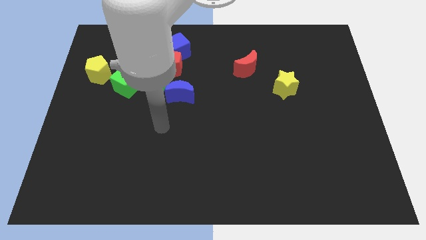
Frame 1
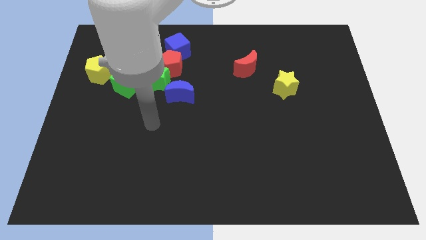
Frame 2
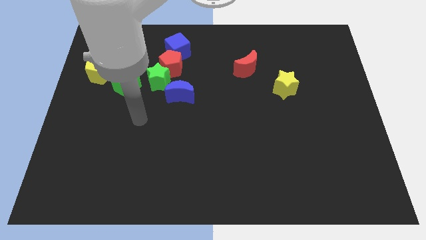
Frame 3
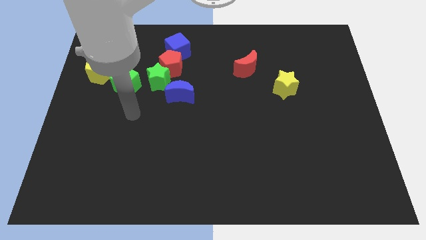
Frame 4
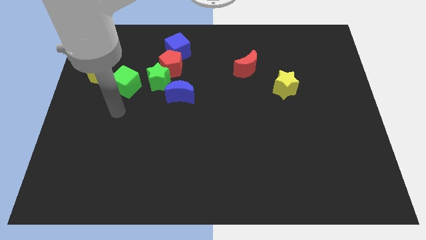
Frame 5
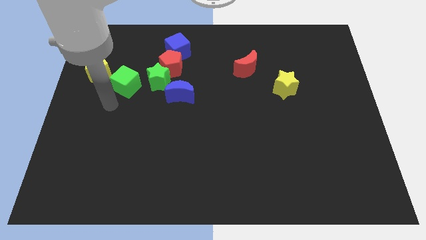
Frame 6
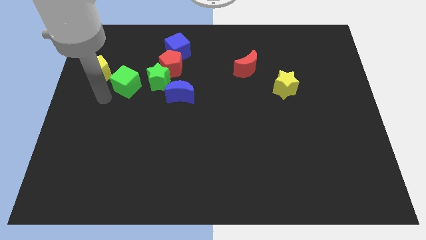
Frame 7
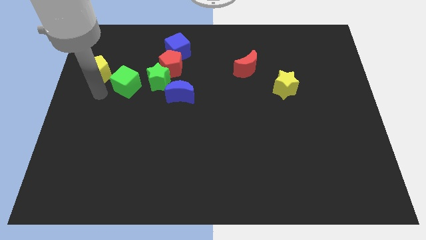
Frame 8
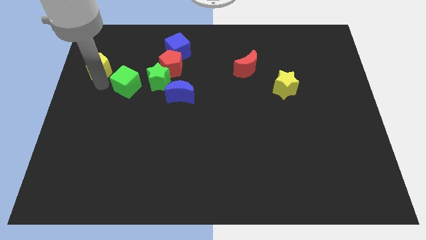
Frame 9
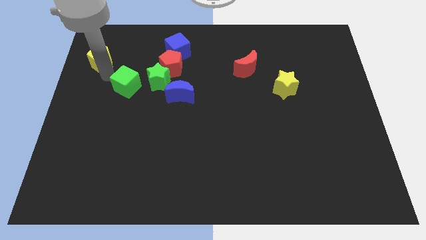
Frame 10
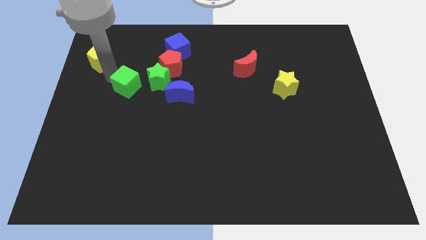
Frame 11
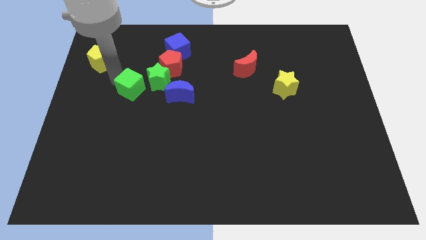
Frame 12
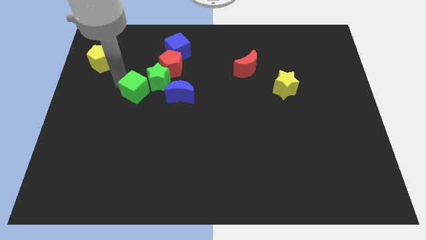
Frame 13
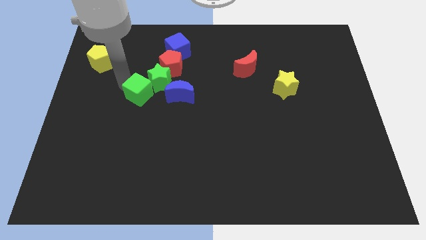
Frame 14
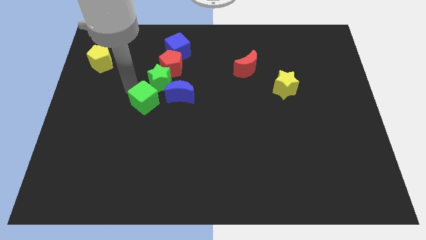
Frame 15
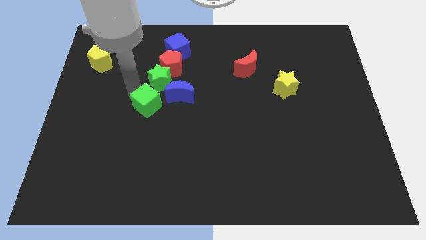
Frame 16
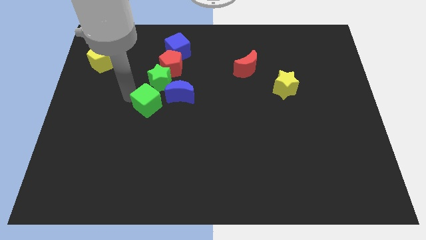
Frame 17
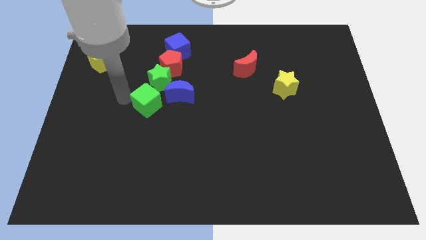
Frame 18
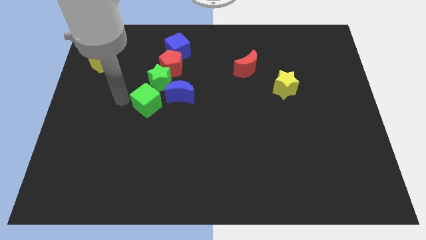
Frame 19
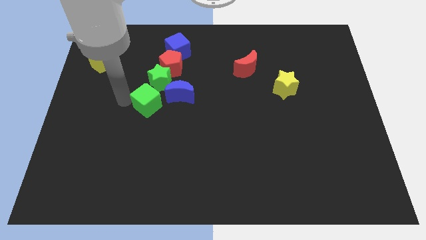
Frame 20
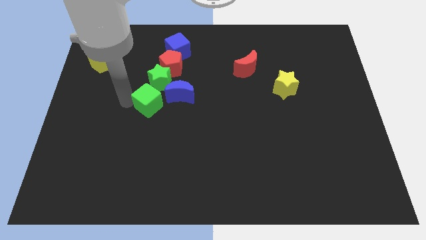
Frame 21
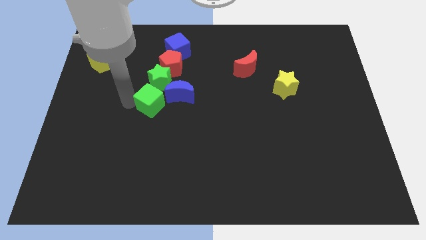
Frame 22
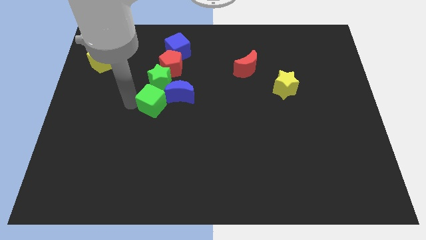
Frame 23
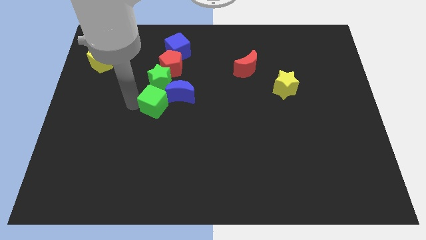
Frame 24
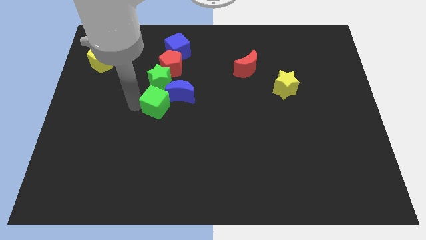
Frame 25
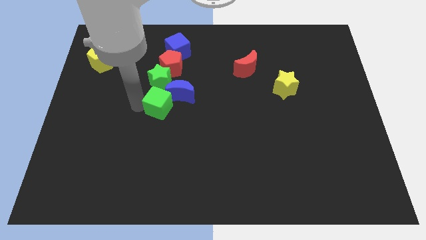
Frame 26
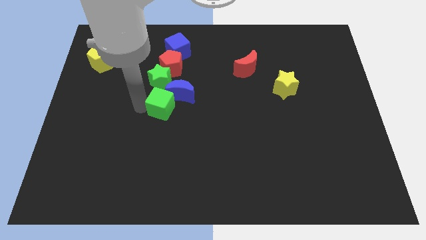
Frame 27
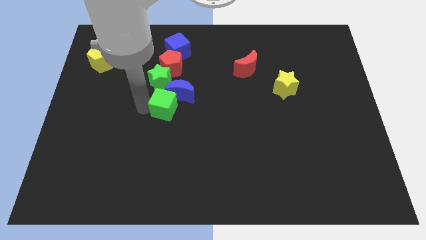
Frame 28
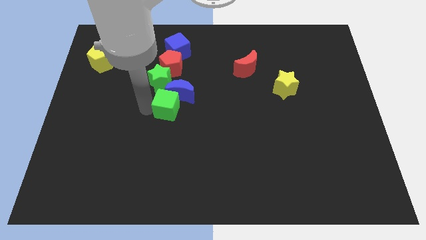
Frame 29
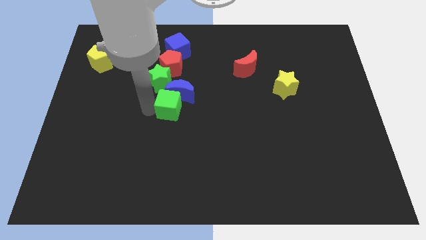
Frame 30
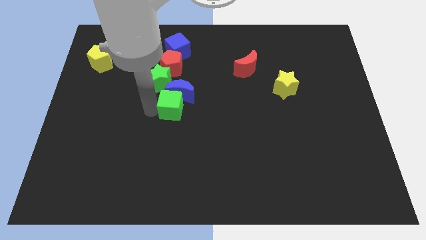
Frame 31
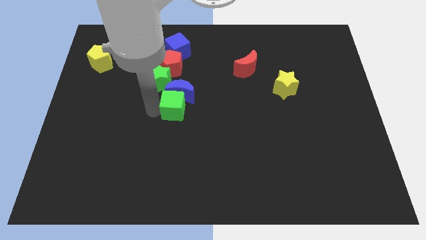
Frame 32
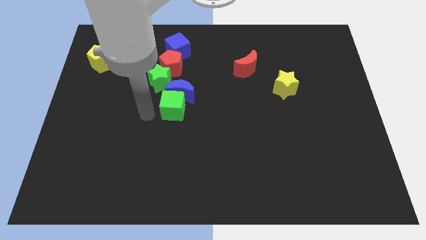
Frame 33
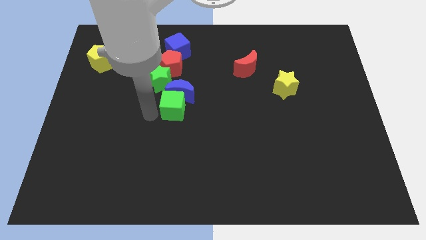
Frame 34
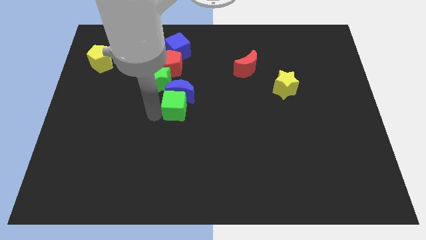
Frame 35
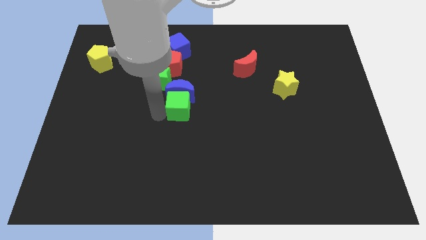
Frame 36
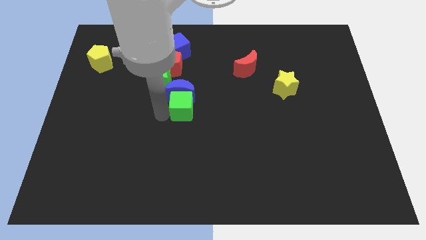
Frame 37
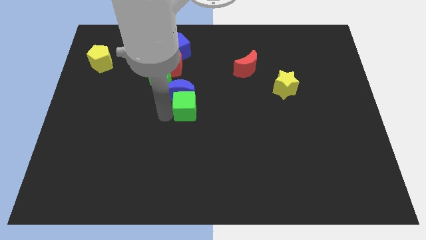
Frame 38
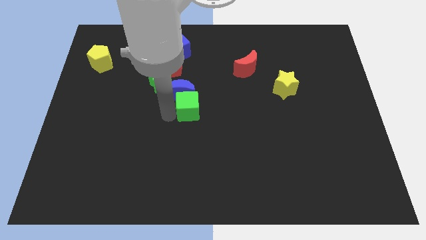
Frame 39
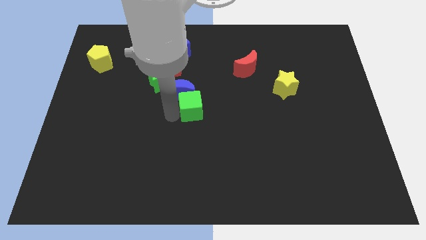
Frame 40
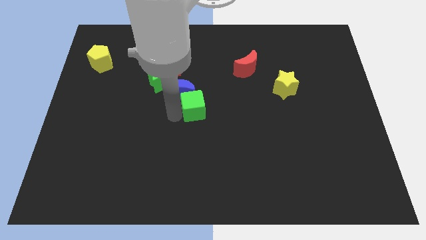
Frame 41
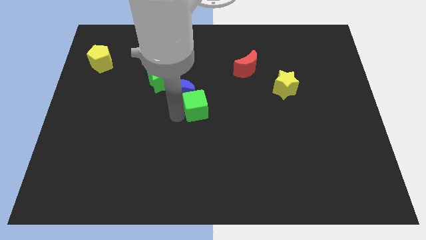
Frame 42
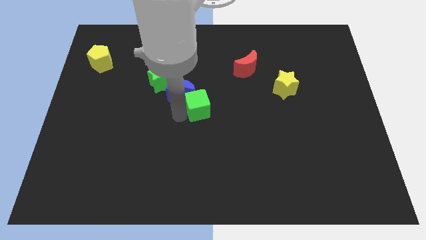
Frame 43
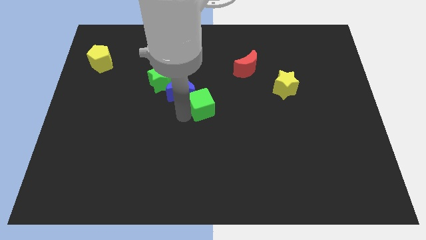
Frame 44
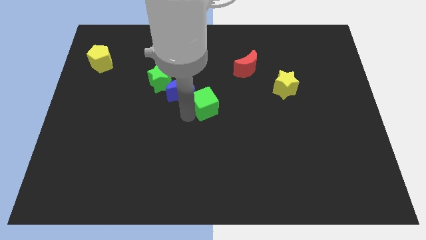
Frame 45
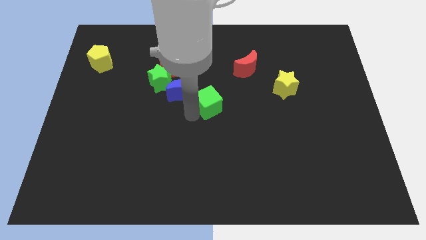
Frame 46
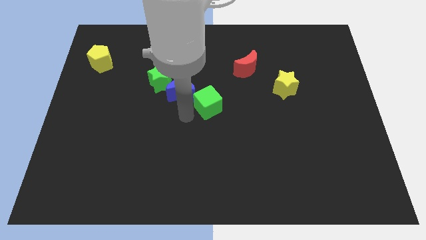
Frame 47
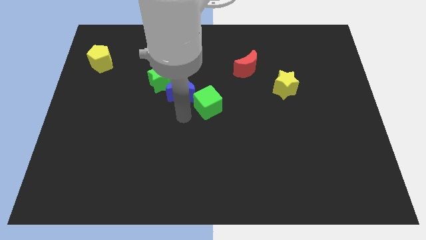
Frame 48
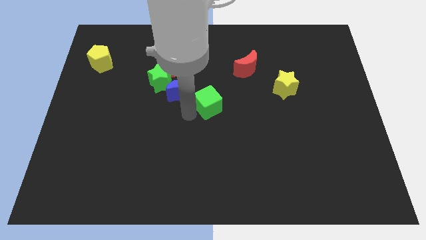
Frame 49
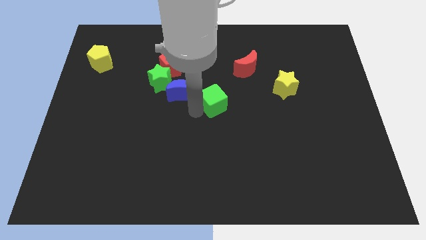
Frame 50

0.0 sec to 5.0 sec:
slide the green cube to the right

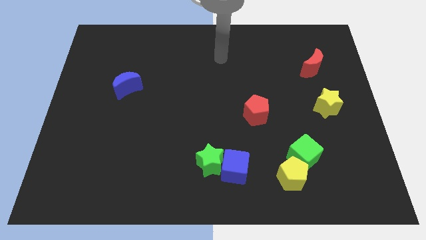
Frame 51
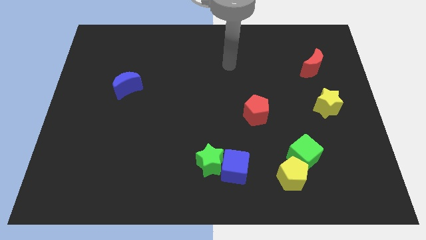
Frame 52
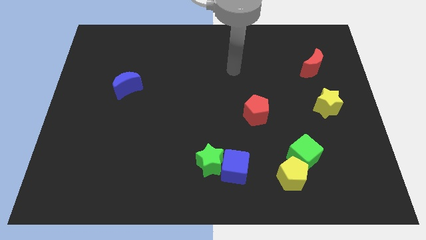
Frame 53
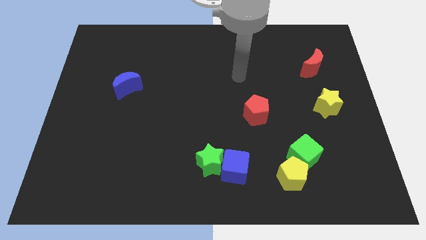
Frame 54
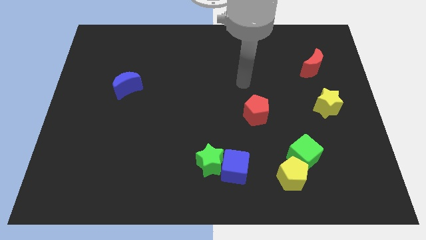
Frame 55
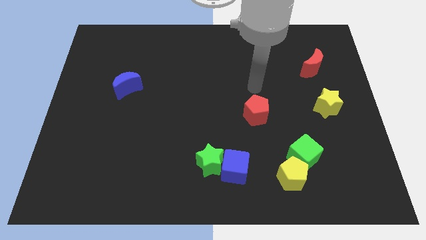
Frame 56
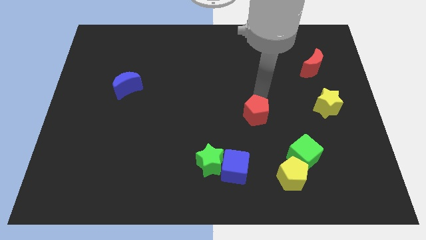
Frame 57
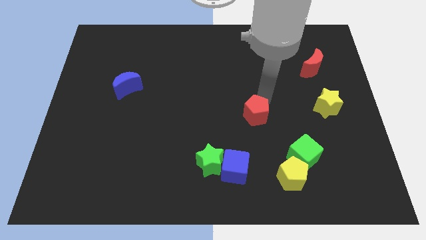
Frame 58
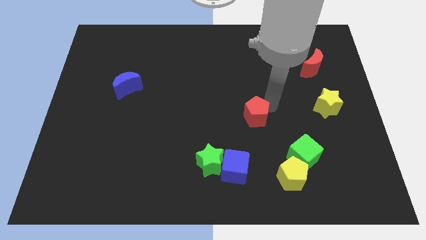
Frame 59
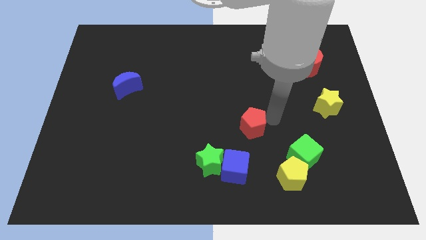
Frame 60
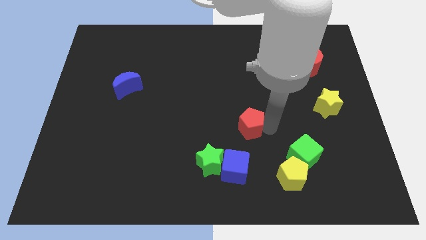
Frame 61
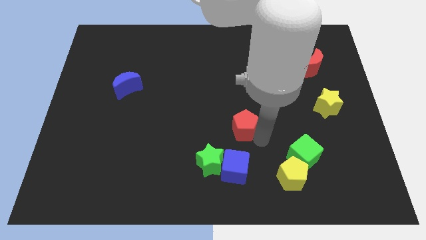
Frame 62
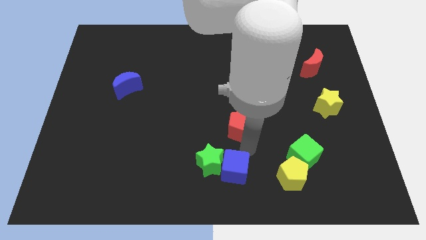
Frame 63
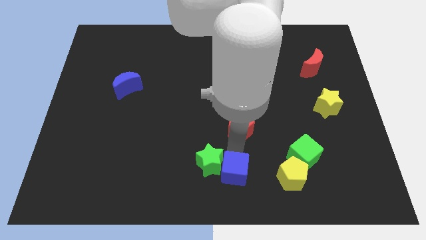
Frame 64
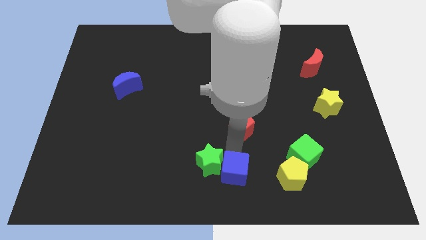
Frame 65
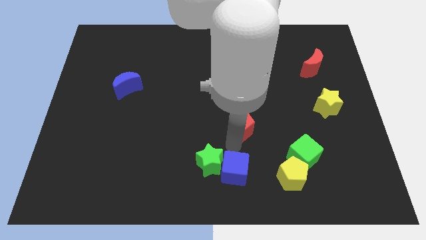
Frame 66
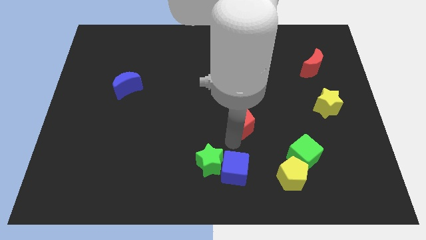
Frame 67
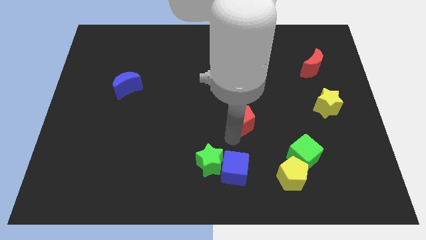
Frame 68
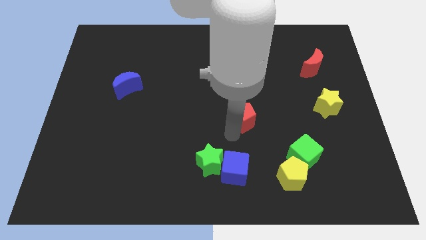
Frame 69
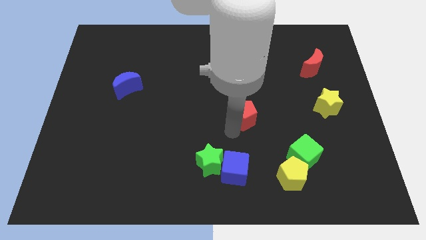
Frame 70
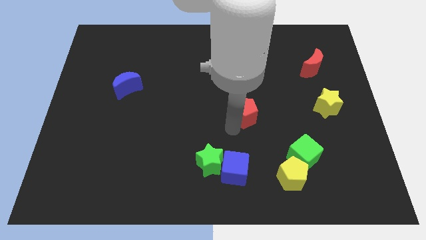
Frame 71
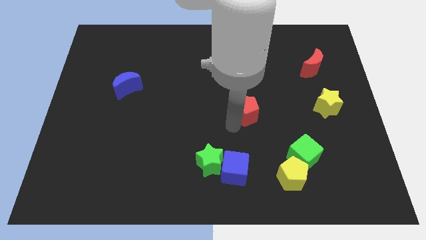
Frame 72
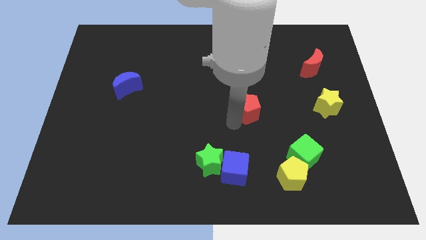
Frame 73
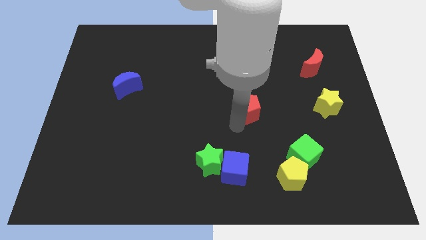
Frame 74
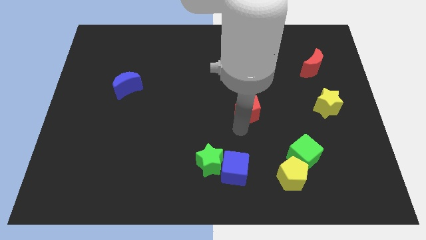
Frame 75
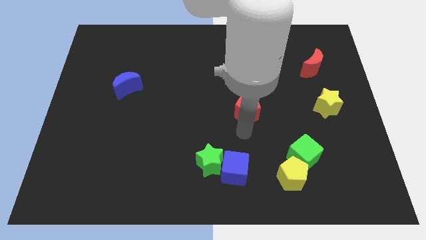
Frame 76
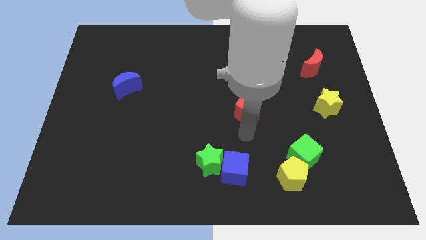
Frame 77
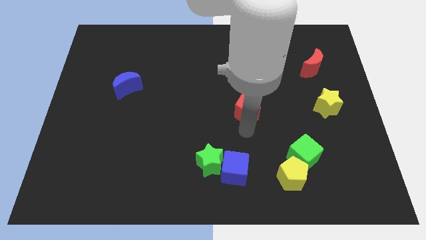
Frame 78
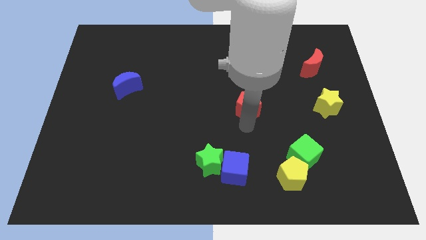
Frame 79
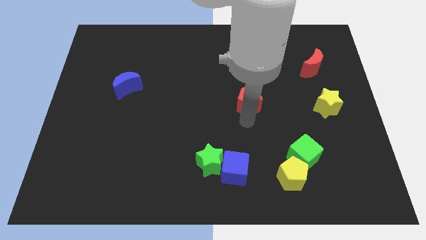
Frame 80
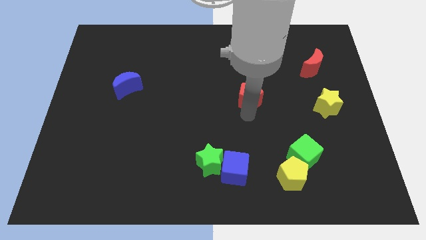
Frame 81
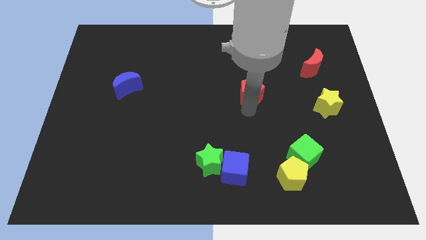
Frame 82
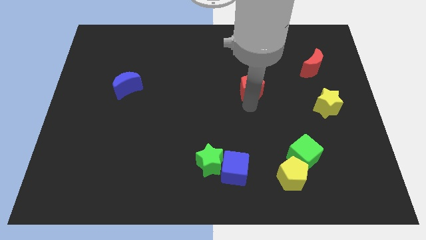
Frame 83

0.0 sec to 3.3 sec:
push the red pentagon a little upwards
